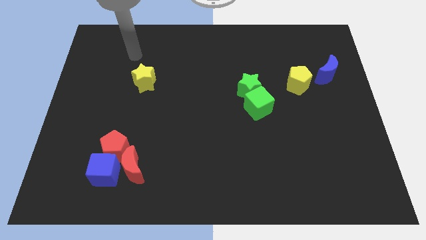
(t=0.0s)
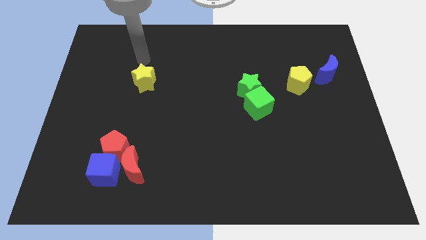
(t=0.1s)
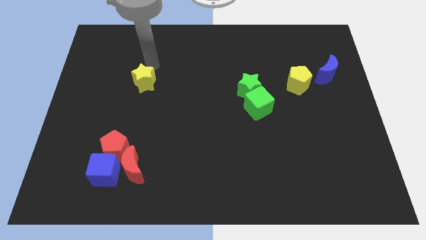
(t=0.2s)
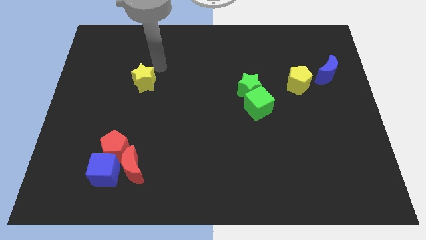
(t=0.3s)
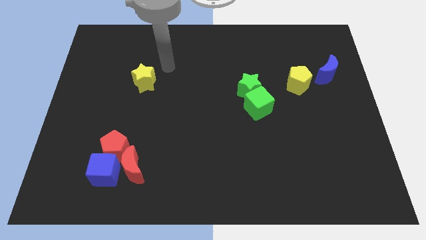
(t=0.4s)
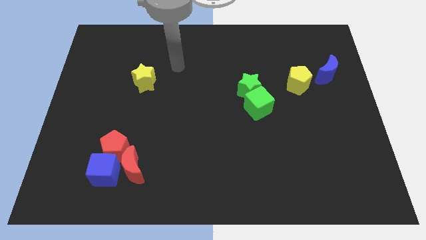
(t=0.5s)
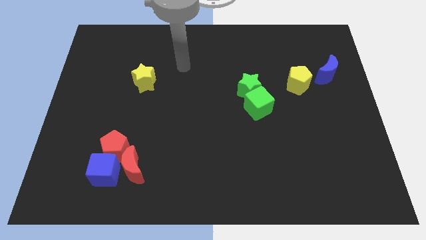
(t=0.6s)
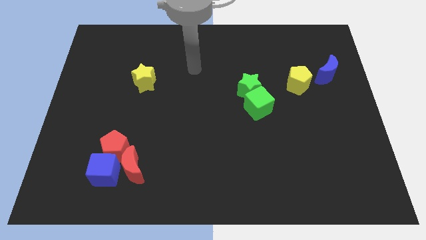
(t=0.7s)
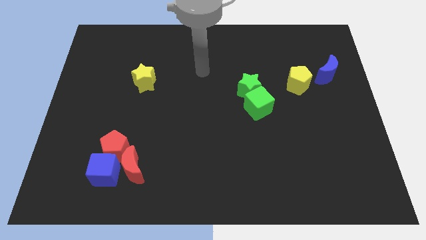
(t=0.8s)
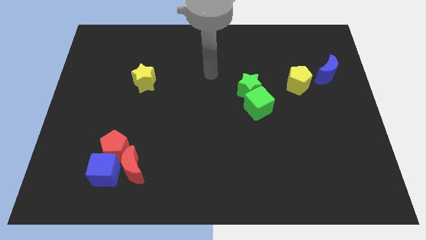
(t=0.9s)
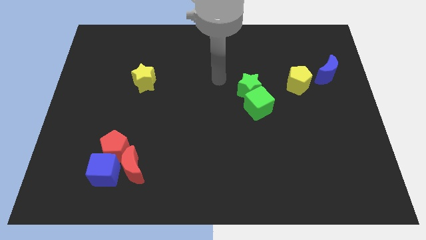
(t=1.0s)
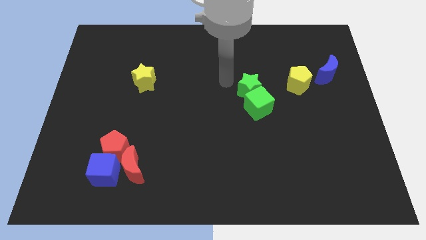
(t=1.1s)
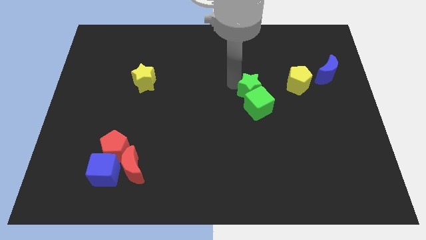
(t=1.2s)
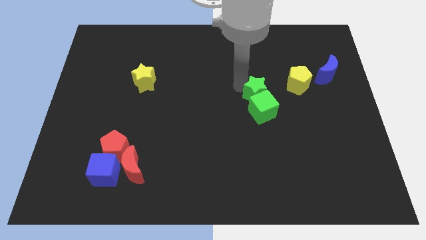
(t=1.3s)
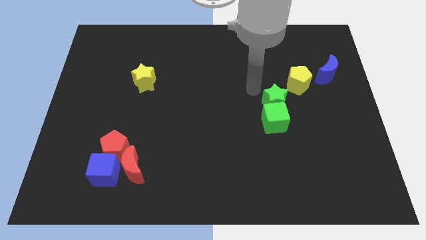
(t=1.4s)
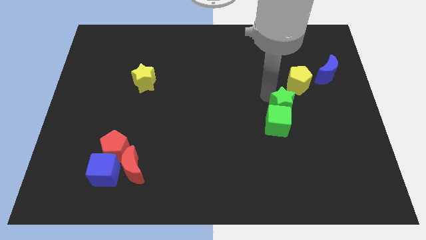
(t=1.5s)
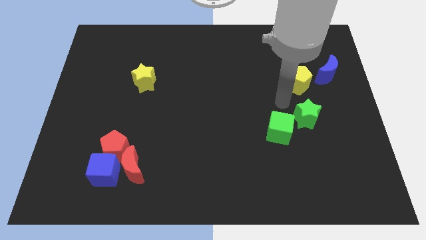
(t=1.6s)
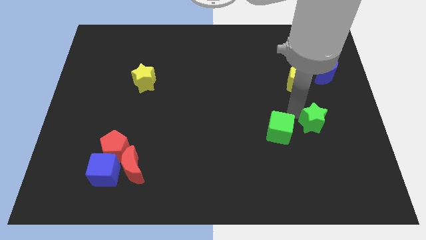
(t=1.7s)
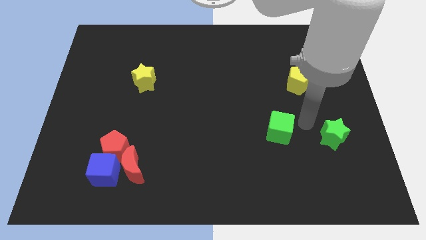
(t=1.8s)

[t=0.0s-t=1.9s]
move the green cube away from the green star

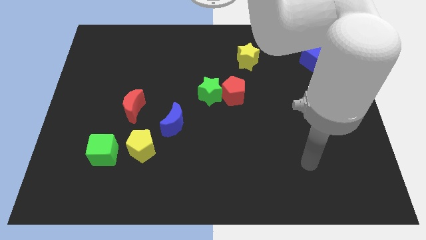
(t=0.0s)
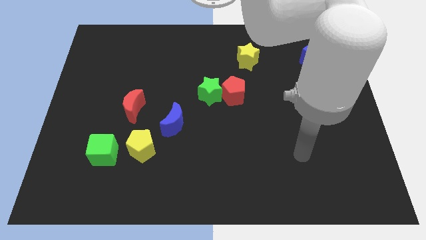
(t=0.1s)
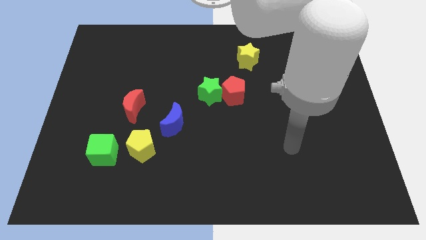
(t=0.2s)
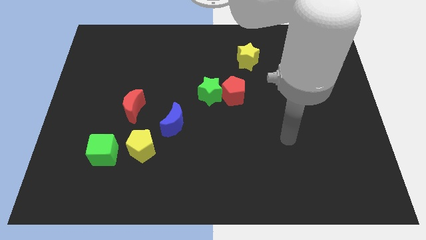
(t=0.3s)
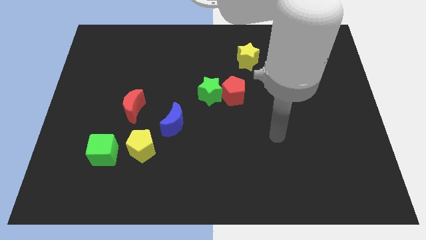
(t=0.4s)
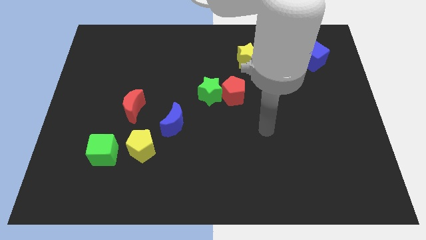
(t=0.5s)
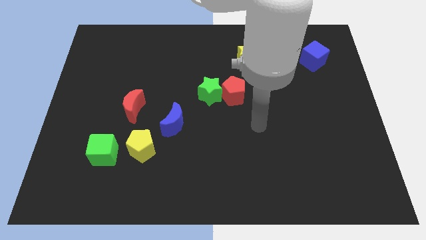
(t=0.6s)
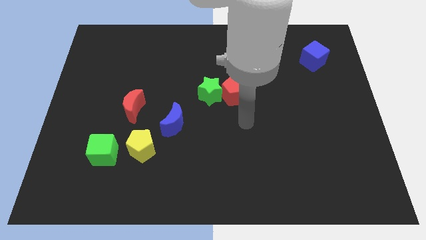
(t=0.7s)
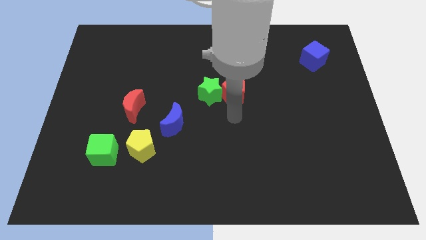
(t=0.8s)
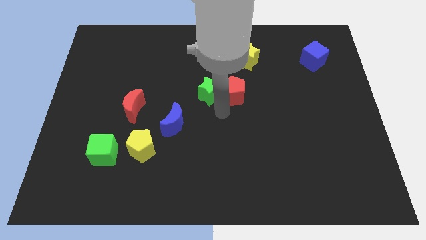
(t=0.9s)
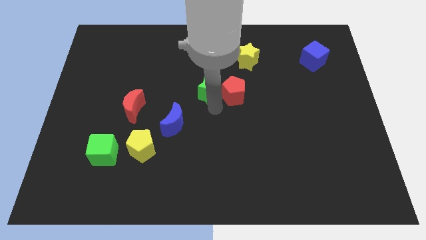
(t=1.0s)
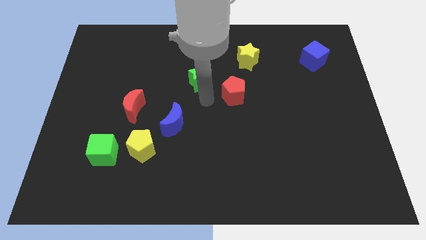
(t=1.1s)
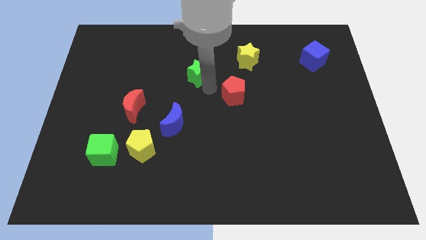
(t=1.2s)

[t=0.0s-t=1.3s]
pull the red pentagon apart from the green star

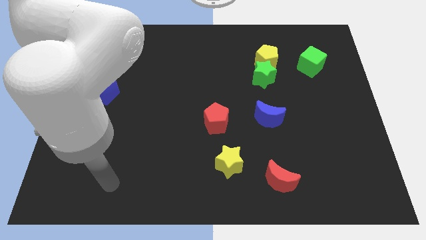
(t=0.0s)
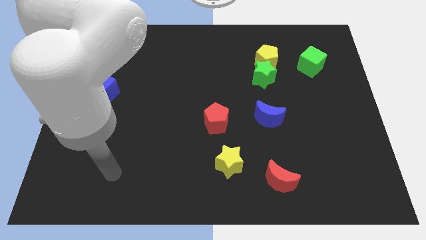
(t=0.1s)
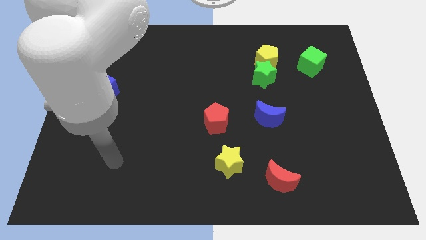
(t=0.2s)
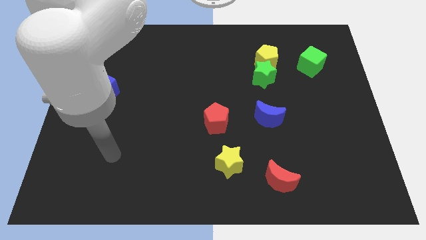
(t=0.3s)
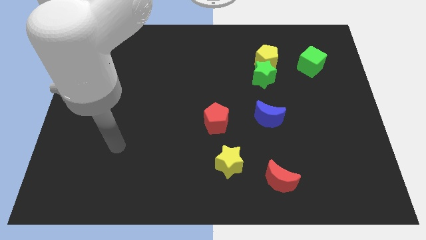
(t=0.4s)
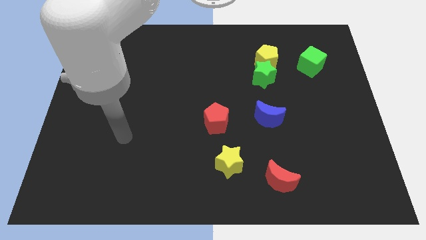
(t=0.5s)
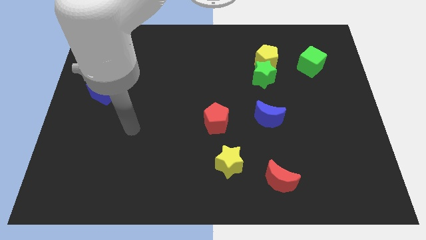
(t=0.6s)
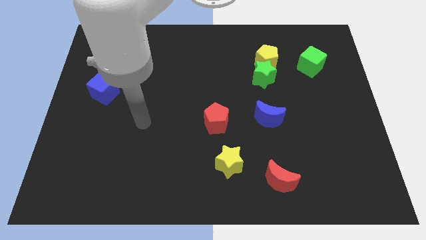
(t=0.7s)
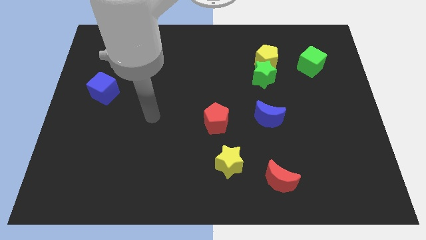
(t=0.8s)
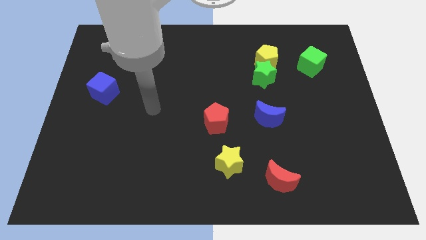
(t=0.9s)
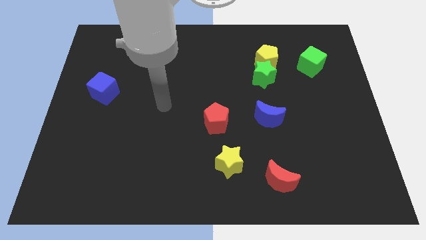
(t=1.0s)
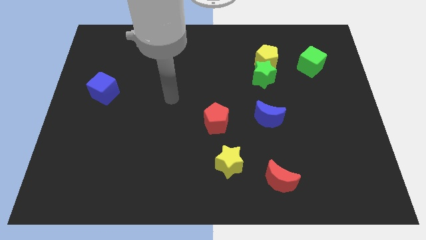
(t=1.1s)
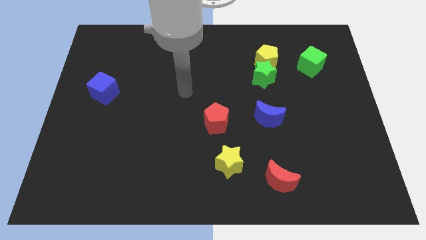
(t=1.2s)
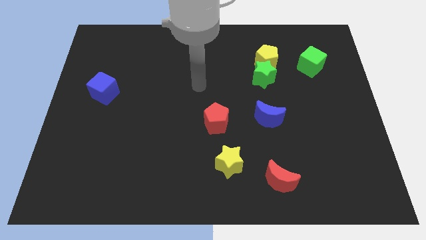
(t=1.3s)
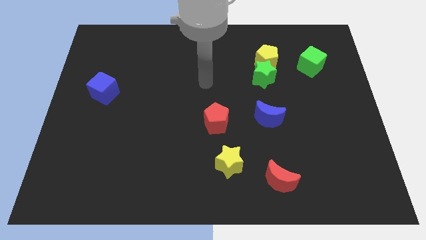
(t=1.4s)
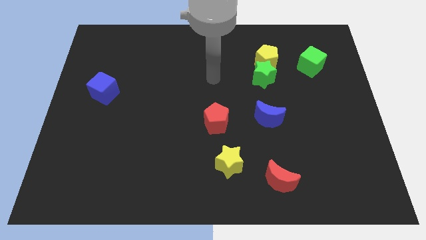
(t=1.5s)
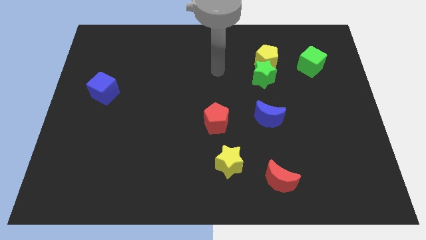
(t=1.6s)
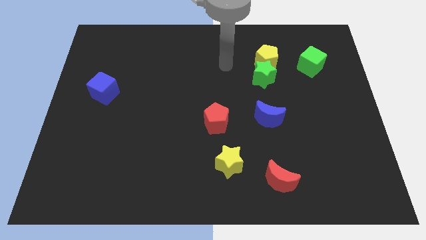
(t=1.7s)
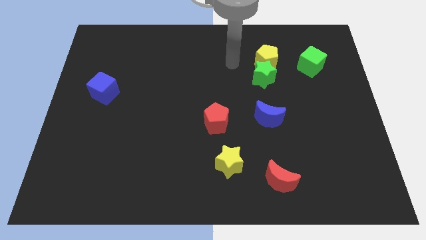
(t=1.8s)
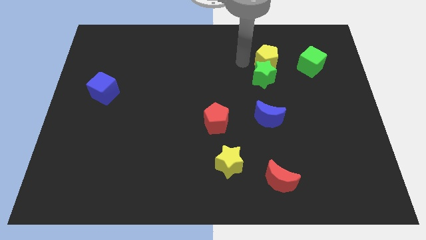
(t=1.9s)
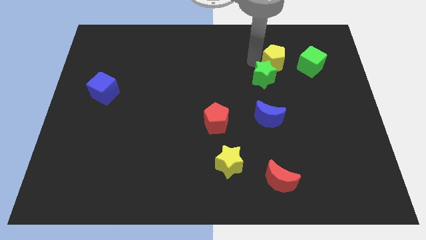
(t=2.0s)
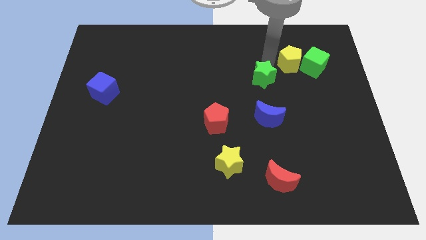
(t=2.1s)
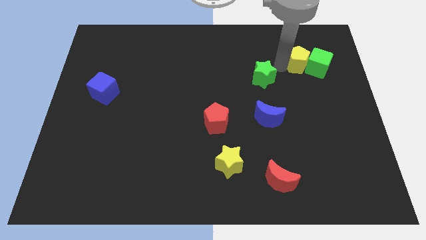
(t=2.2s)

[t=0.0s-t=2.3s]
move the green star away from the yellow pentagon

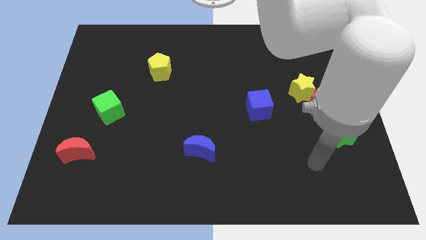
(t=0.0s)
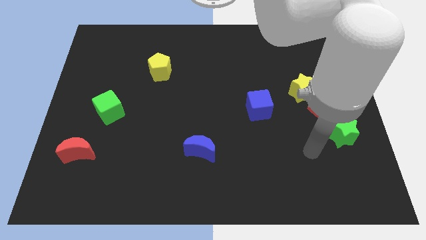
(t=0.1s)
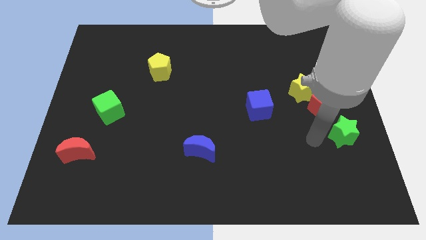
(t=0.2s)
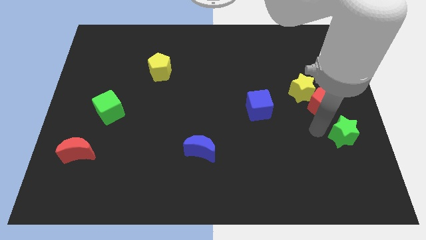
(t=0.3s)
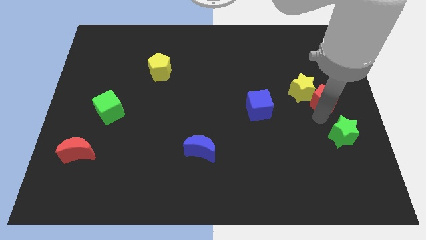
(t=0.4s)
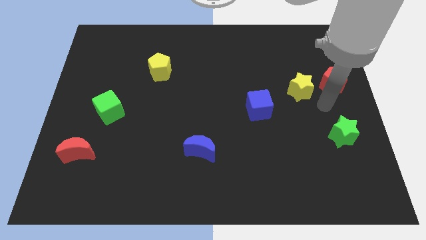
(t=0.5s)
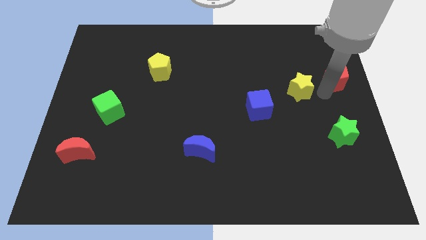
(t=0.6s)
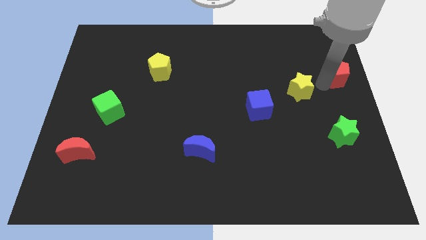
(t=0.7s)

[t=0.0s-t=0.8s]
move the yellow star away from the red pentagon

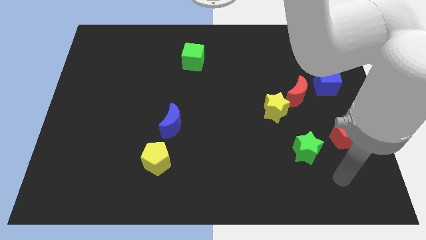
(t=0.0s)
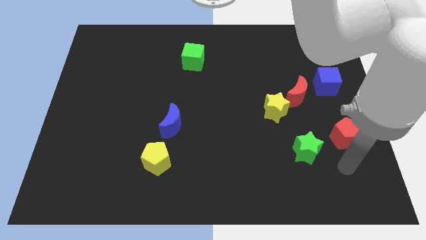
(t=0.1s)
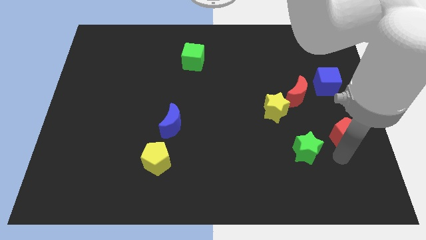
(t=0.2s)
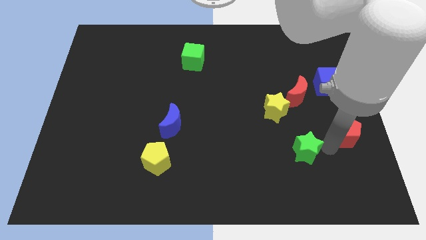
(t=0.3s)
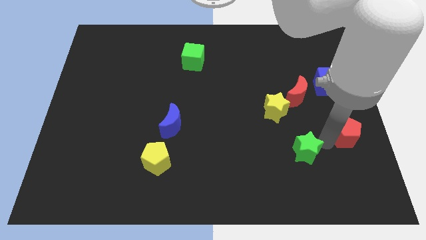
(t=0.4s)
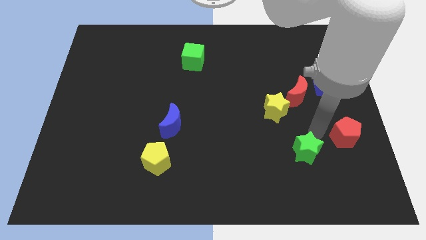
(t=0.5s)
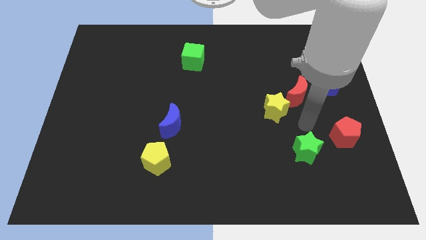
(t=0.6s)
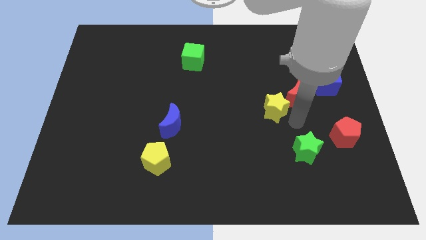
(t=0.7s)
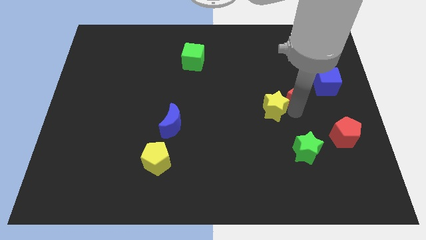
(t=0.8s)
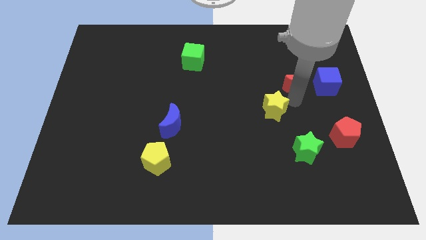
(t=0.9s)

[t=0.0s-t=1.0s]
move the yellow star away from the red moon

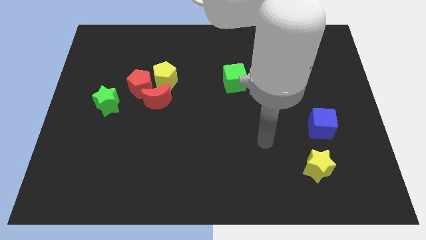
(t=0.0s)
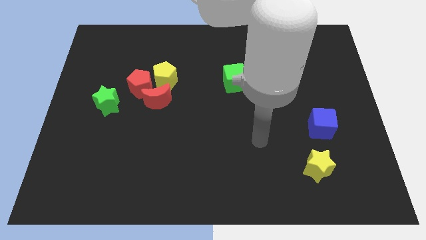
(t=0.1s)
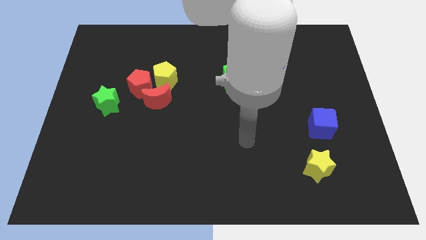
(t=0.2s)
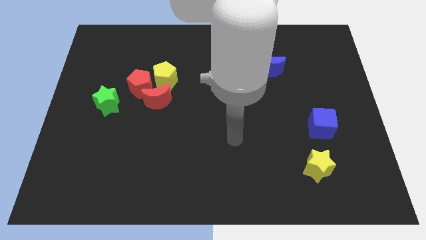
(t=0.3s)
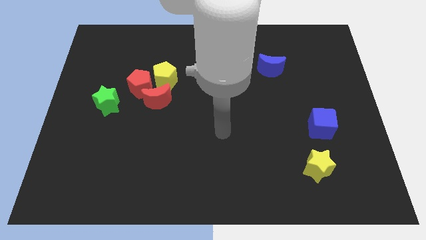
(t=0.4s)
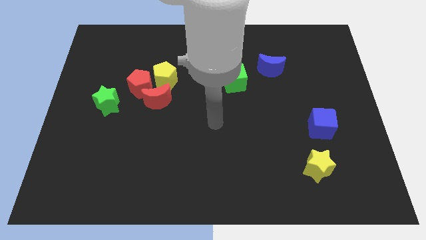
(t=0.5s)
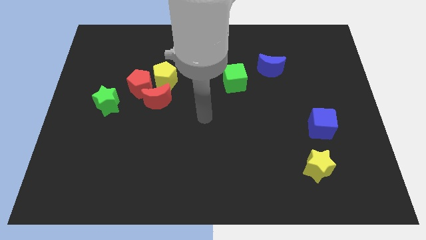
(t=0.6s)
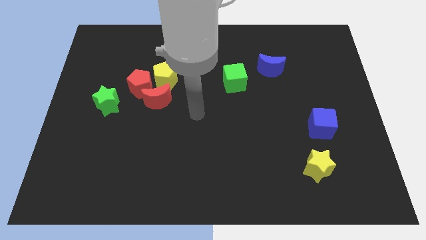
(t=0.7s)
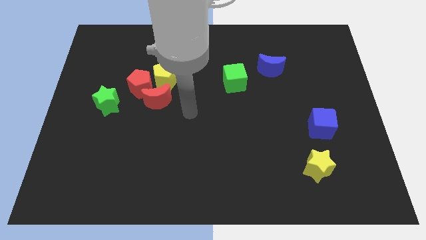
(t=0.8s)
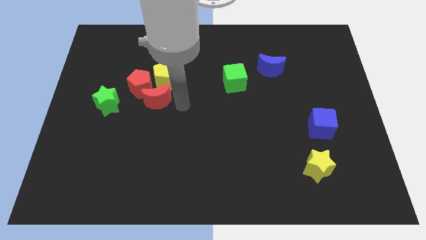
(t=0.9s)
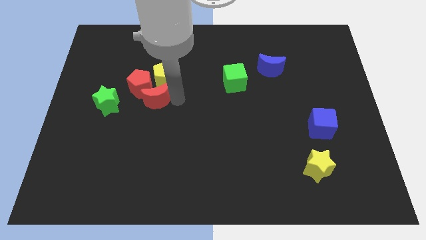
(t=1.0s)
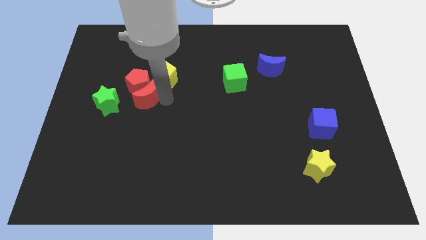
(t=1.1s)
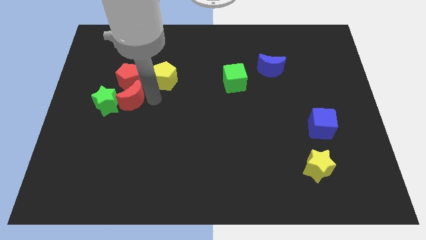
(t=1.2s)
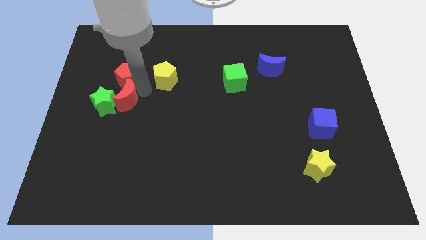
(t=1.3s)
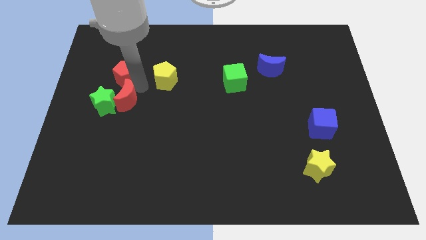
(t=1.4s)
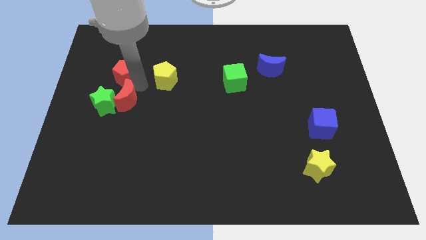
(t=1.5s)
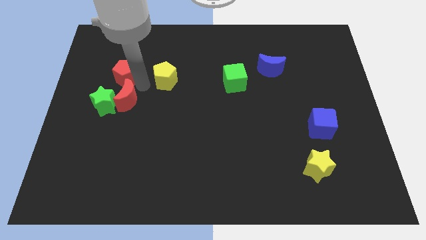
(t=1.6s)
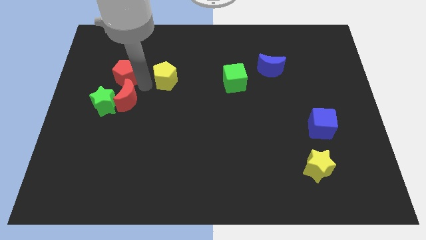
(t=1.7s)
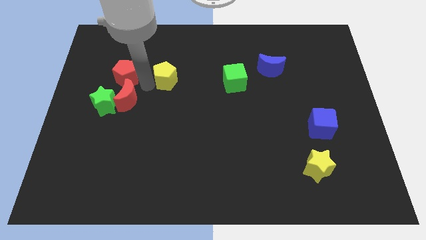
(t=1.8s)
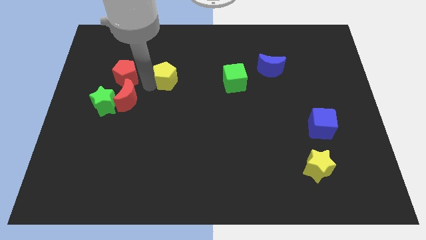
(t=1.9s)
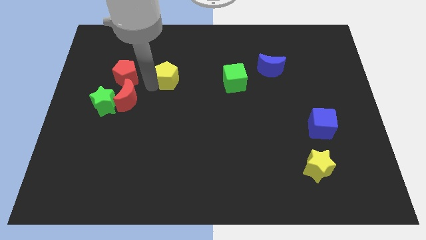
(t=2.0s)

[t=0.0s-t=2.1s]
move the yellow pentagon away from the red pentagon and red moon
